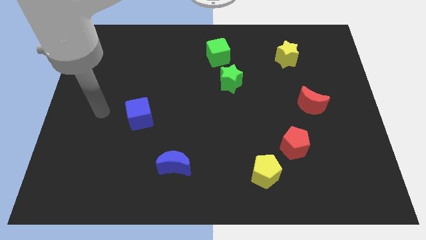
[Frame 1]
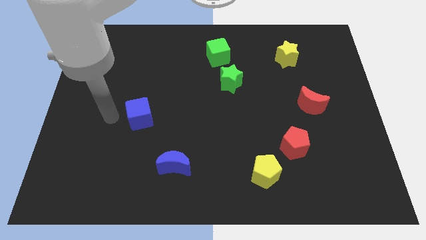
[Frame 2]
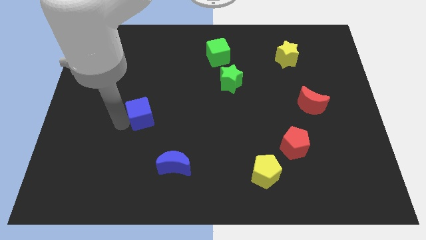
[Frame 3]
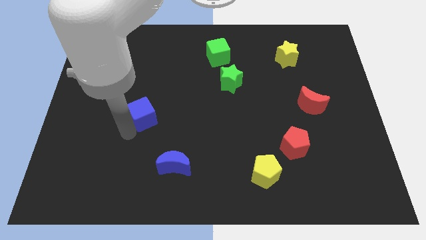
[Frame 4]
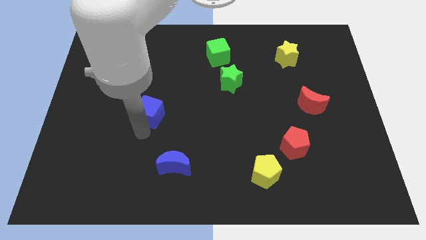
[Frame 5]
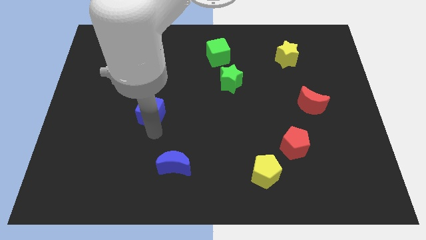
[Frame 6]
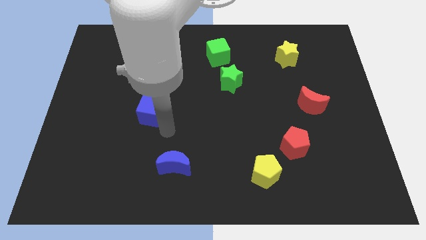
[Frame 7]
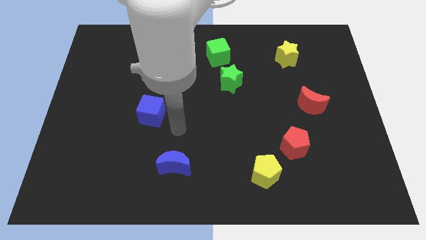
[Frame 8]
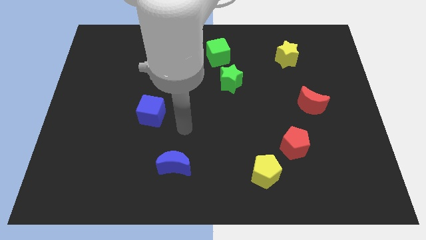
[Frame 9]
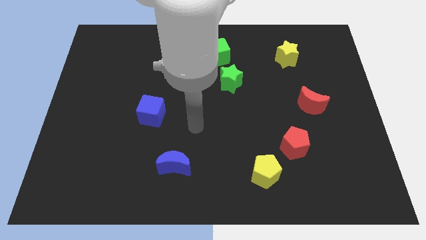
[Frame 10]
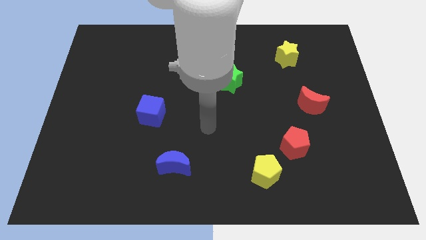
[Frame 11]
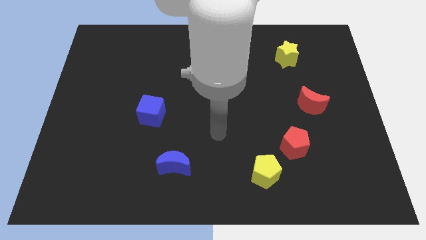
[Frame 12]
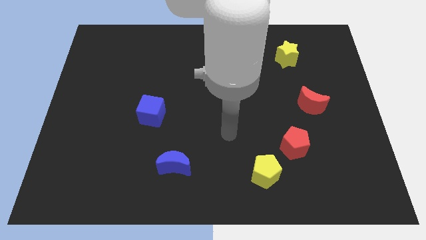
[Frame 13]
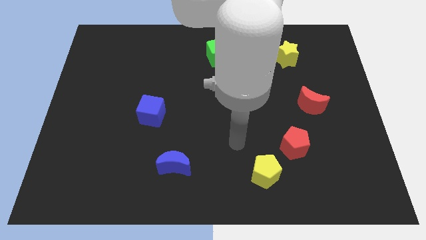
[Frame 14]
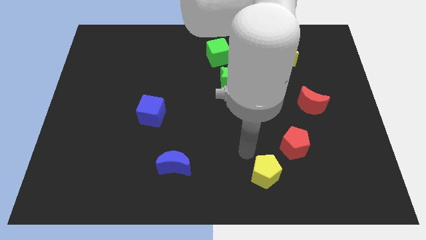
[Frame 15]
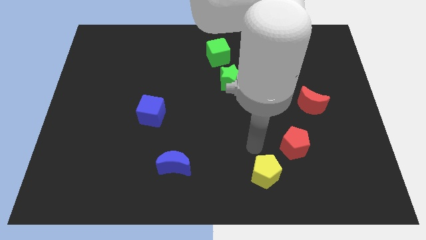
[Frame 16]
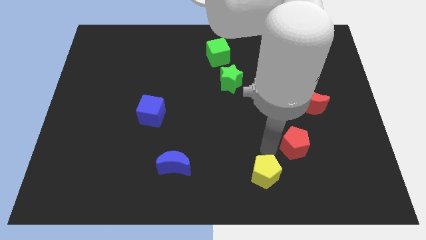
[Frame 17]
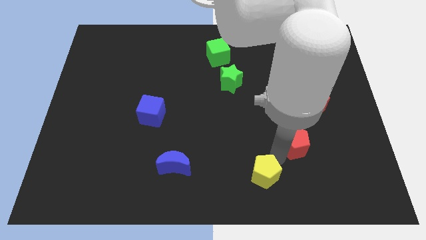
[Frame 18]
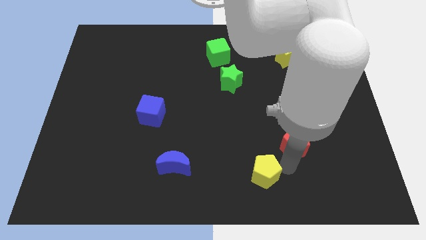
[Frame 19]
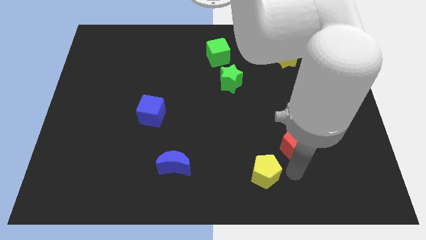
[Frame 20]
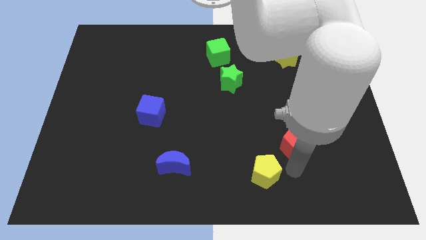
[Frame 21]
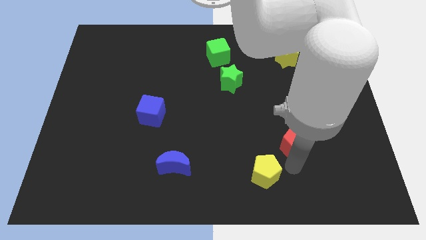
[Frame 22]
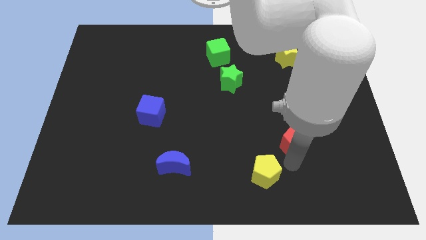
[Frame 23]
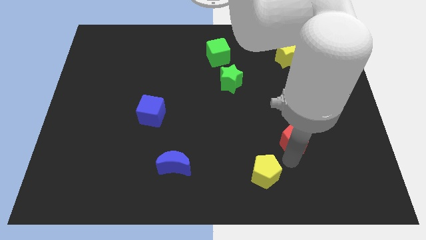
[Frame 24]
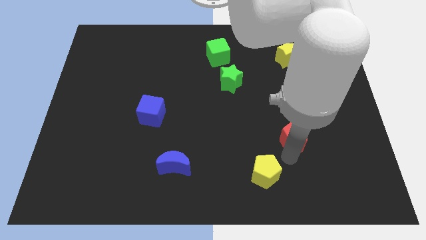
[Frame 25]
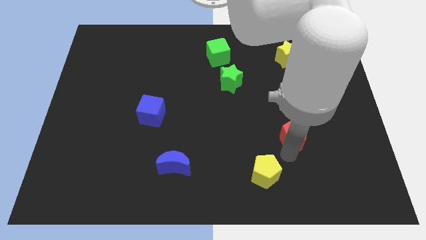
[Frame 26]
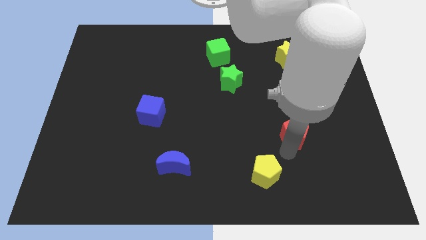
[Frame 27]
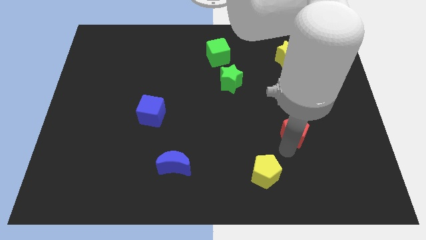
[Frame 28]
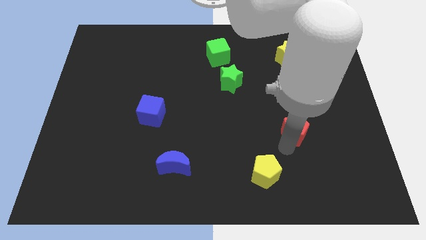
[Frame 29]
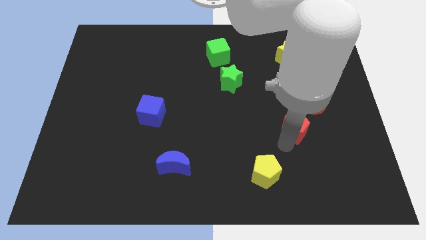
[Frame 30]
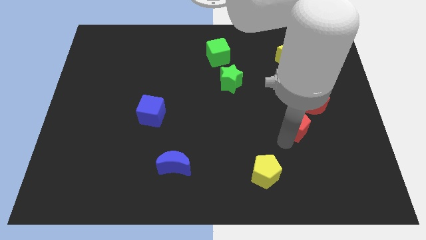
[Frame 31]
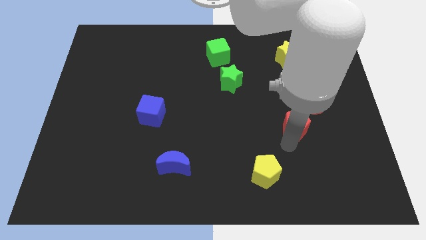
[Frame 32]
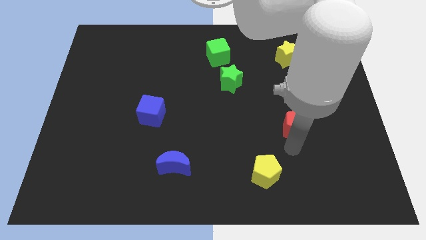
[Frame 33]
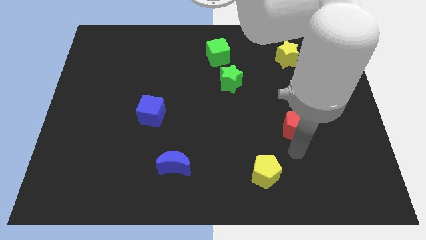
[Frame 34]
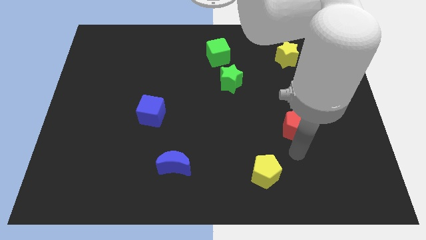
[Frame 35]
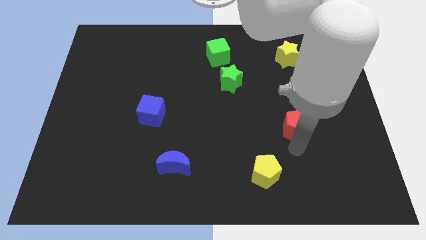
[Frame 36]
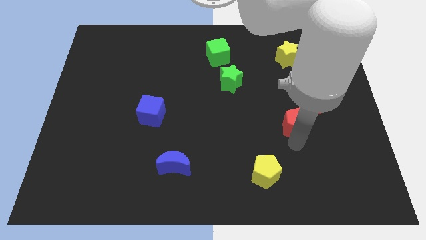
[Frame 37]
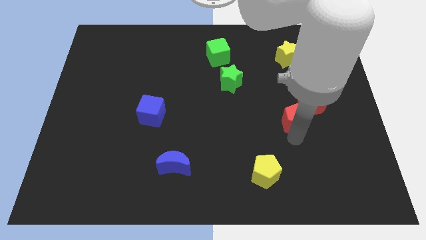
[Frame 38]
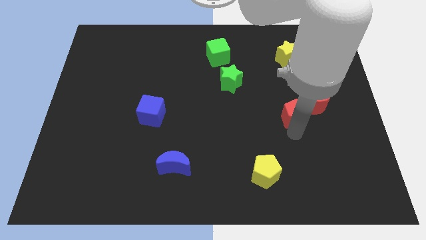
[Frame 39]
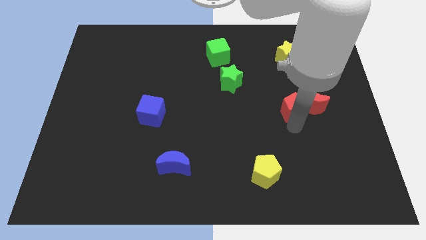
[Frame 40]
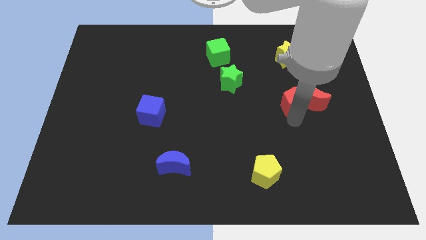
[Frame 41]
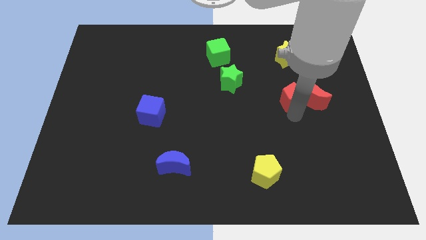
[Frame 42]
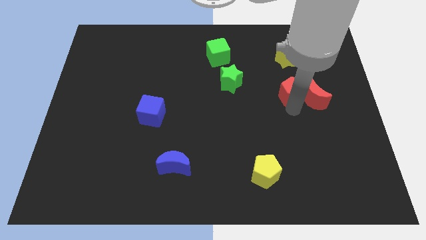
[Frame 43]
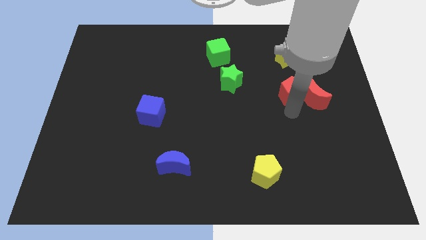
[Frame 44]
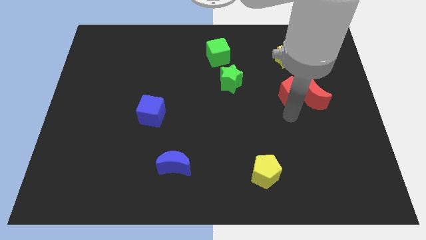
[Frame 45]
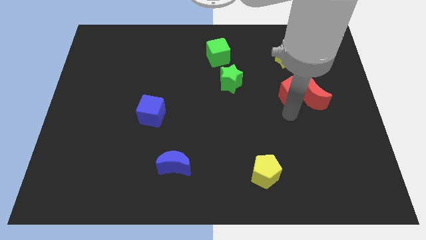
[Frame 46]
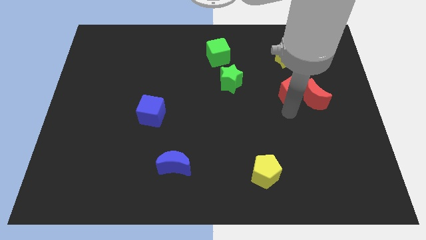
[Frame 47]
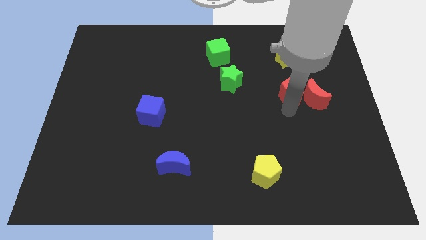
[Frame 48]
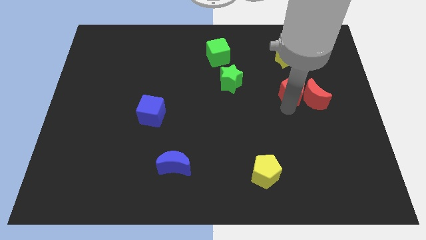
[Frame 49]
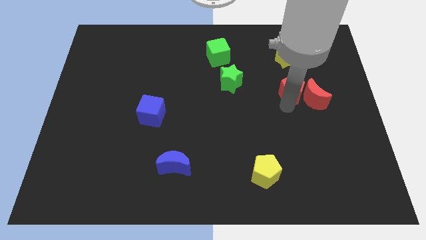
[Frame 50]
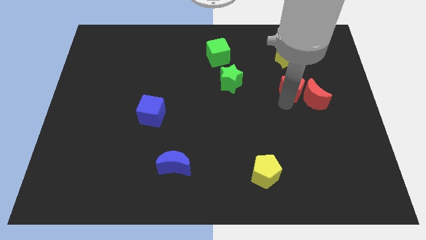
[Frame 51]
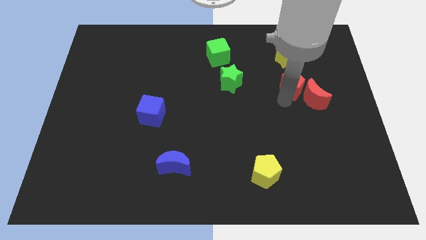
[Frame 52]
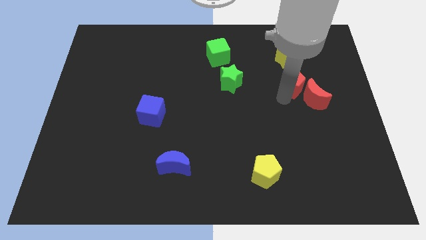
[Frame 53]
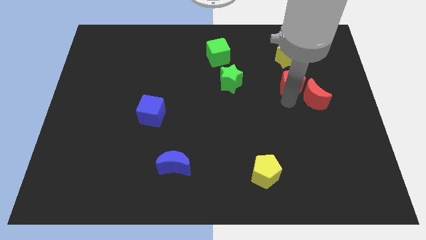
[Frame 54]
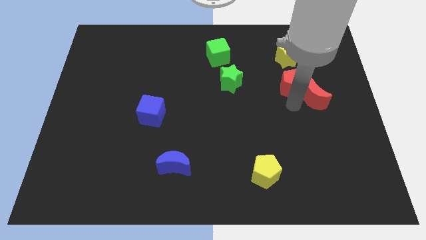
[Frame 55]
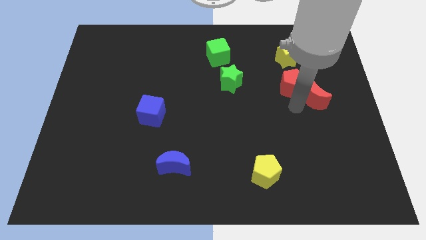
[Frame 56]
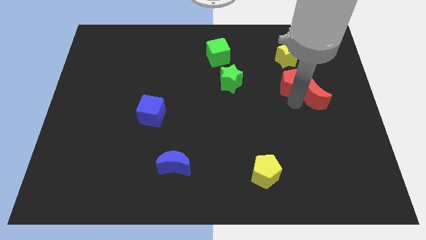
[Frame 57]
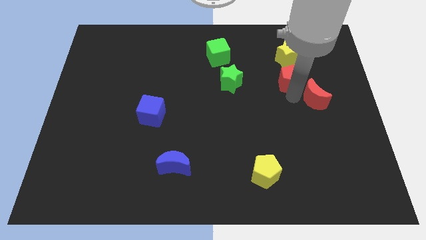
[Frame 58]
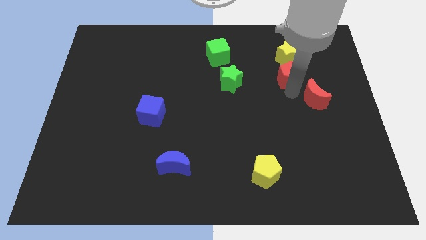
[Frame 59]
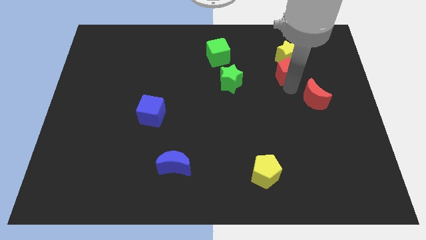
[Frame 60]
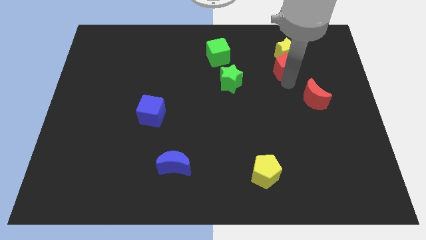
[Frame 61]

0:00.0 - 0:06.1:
push the red pentagon close to the yellow star
